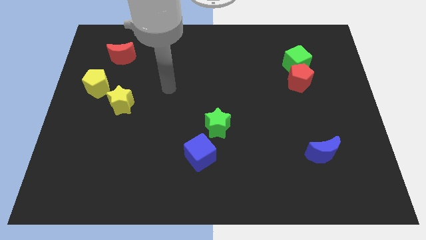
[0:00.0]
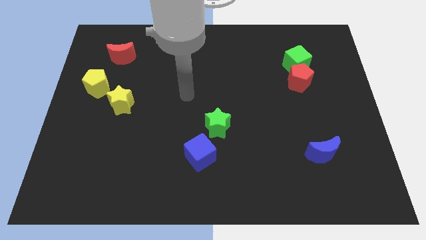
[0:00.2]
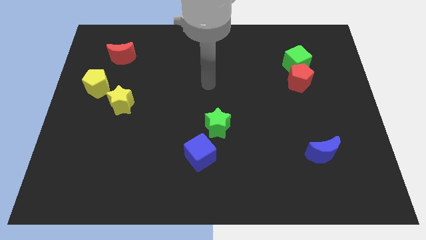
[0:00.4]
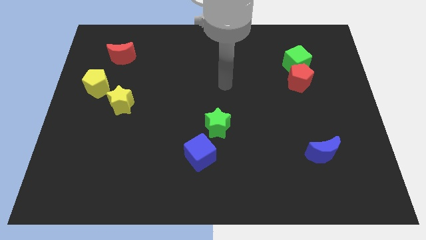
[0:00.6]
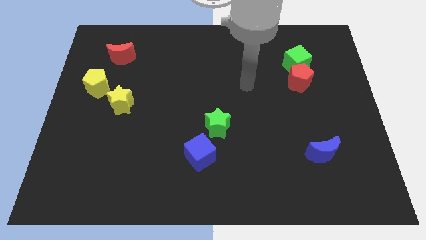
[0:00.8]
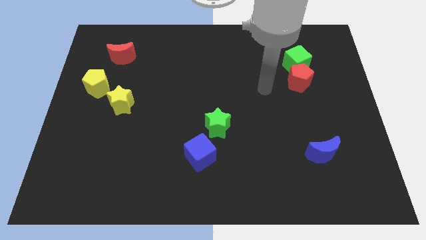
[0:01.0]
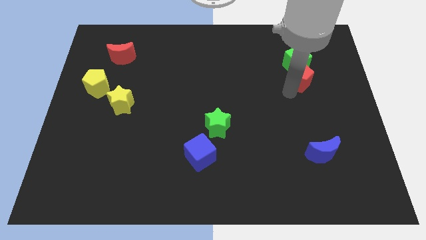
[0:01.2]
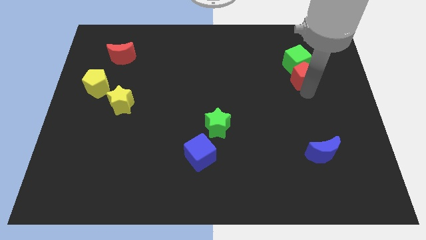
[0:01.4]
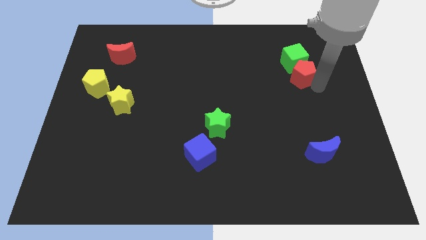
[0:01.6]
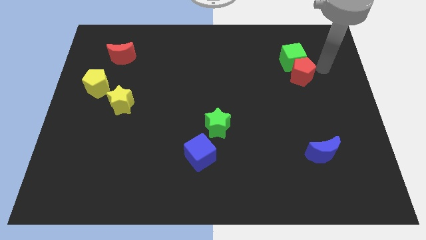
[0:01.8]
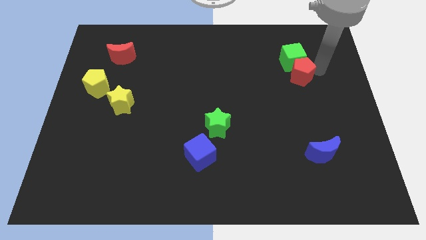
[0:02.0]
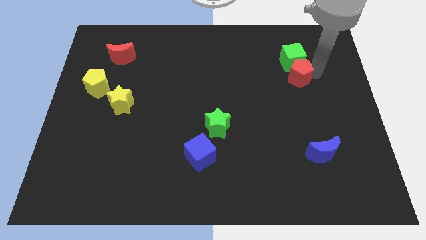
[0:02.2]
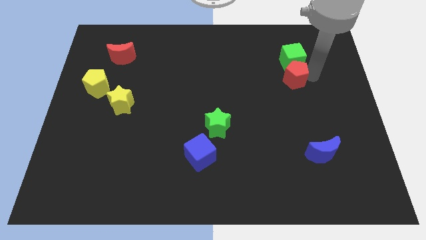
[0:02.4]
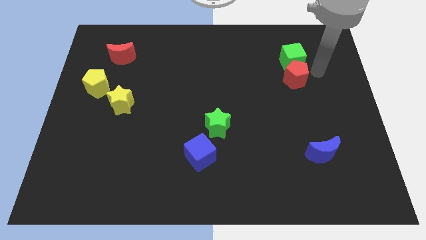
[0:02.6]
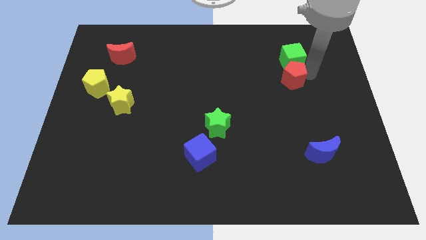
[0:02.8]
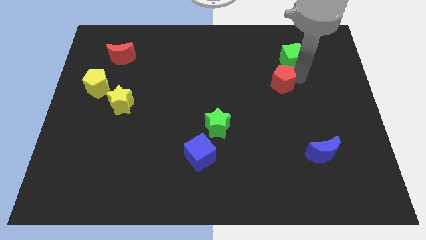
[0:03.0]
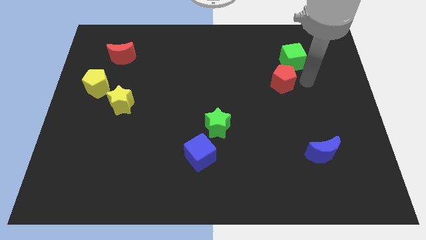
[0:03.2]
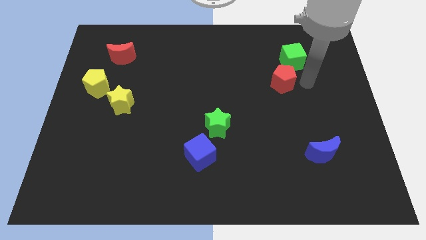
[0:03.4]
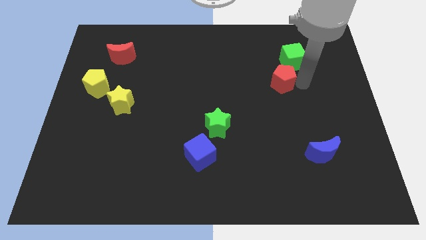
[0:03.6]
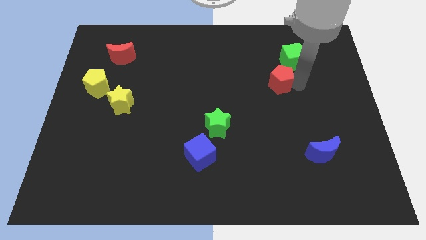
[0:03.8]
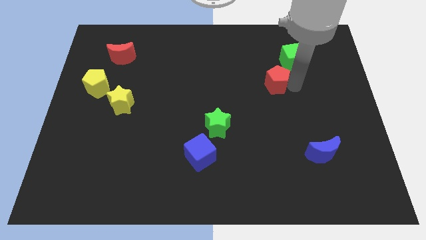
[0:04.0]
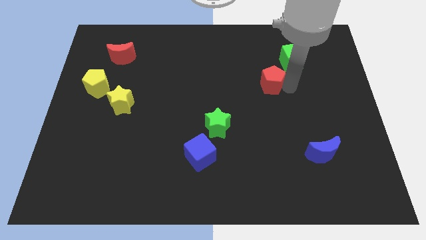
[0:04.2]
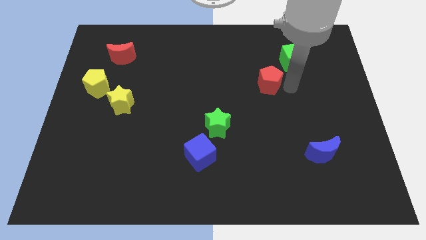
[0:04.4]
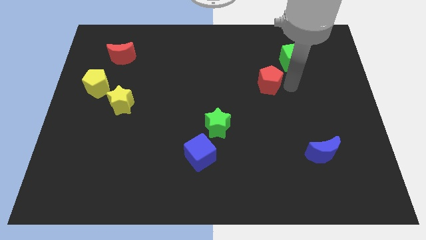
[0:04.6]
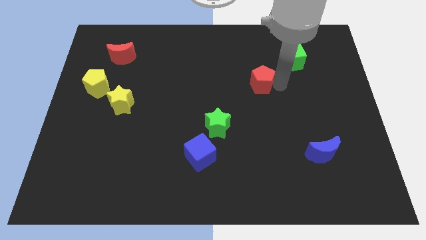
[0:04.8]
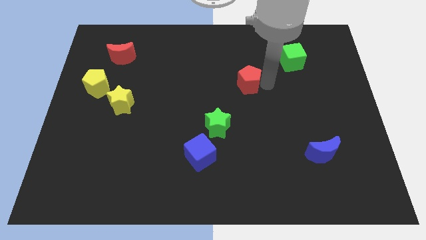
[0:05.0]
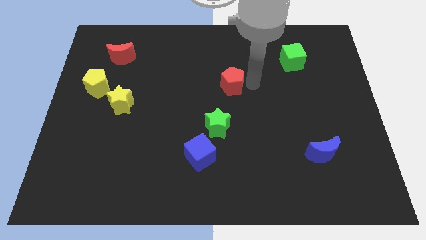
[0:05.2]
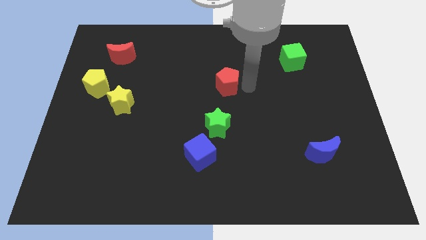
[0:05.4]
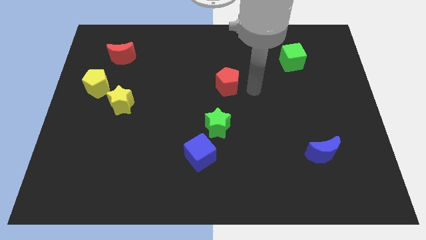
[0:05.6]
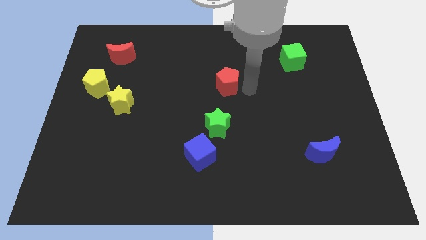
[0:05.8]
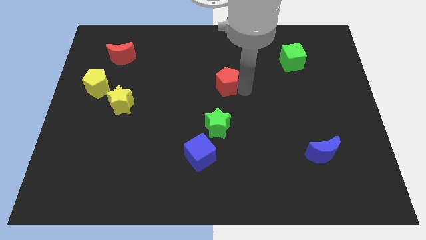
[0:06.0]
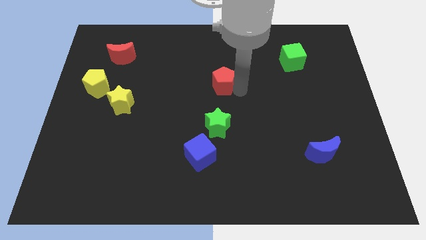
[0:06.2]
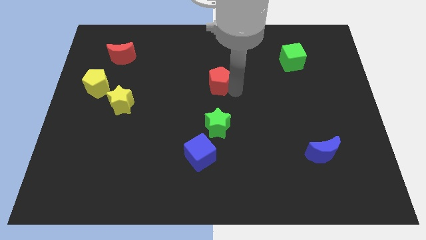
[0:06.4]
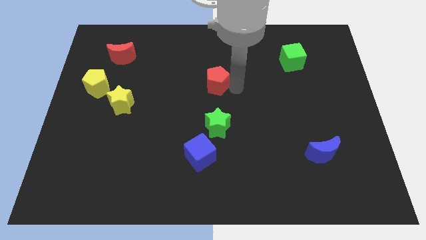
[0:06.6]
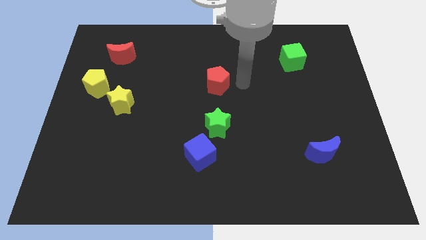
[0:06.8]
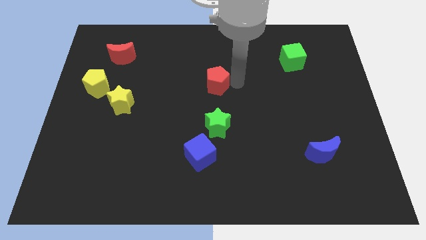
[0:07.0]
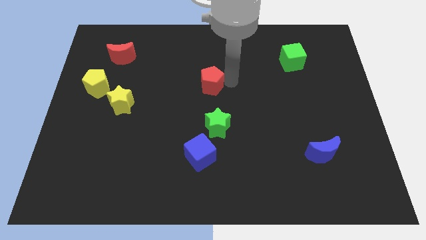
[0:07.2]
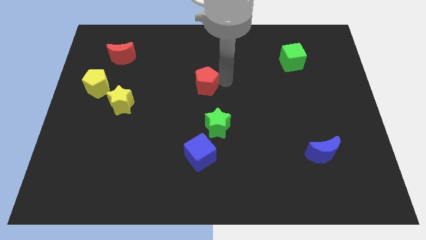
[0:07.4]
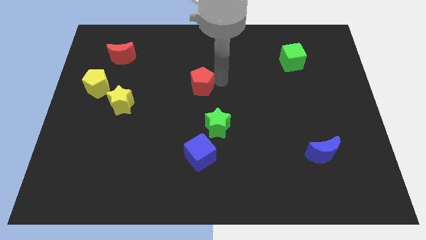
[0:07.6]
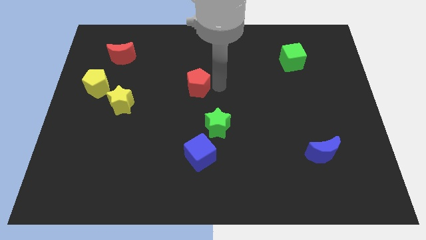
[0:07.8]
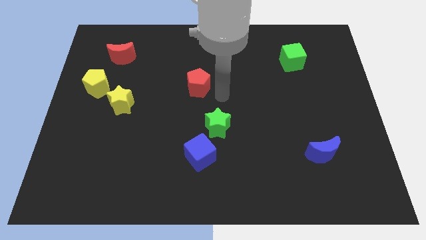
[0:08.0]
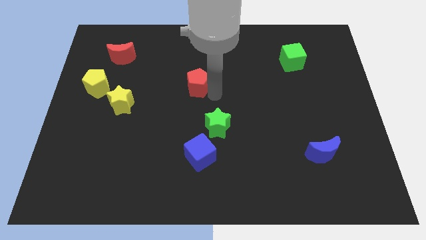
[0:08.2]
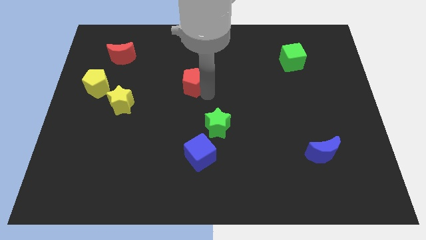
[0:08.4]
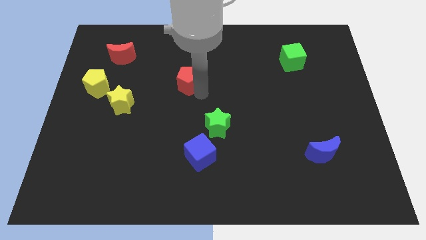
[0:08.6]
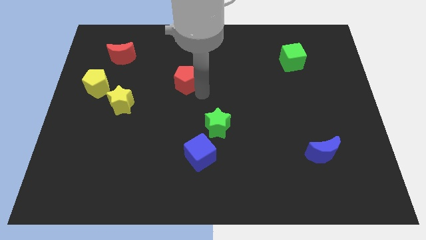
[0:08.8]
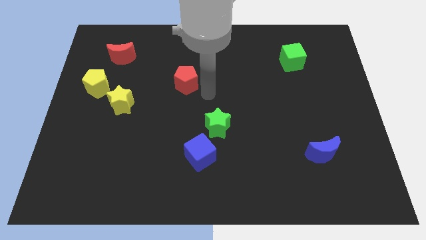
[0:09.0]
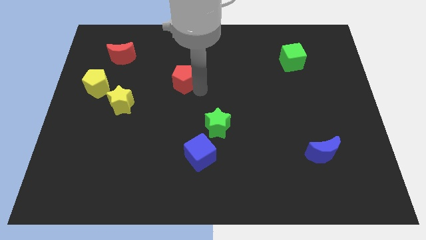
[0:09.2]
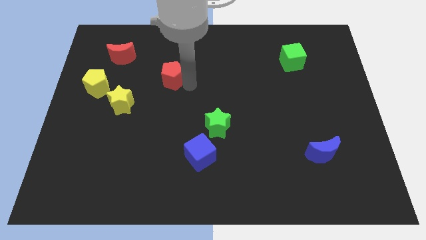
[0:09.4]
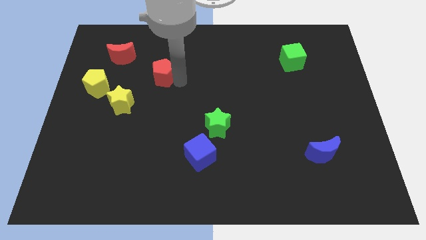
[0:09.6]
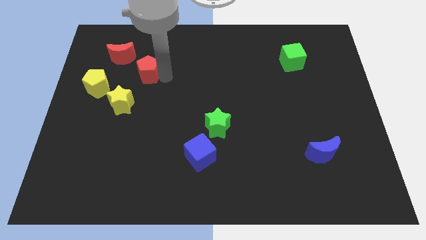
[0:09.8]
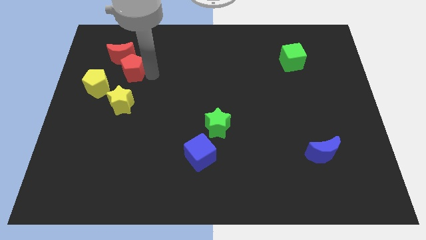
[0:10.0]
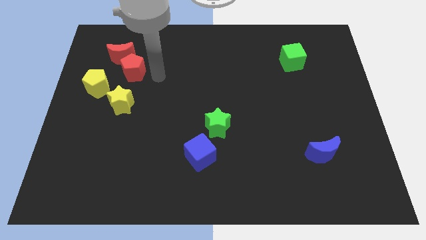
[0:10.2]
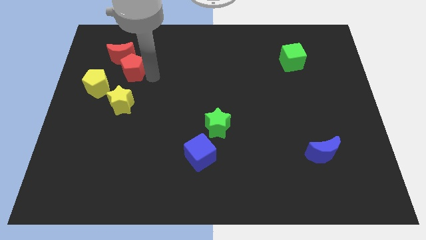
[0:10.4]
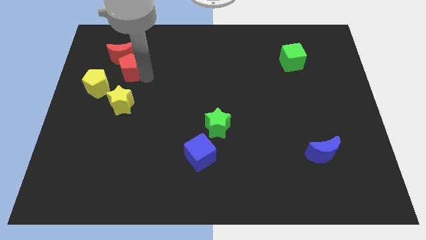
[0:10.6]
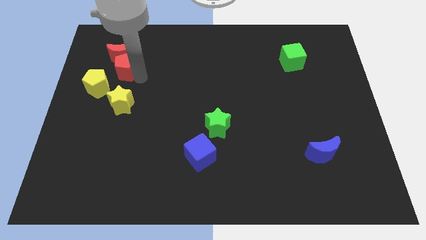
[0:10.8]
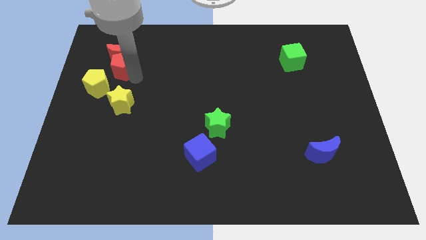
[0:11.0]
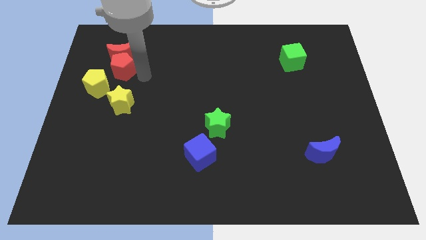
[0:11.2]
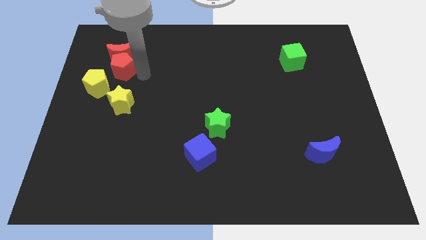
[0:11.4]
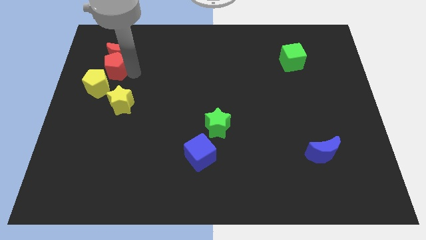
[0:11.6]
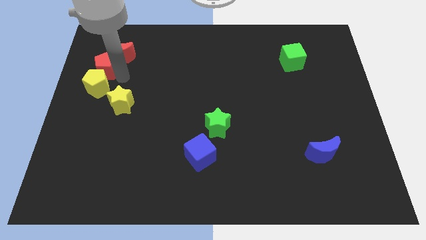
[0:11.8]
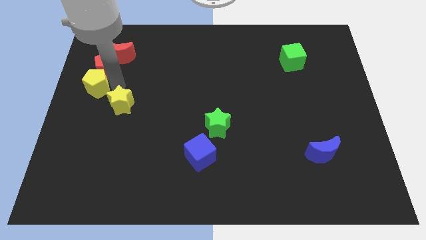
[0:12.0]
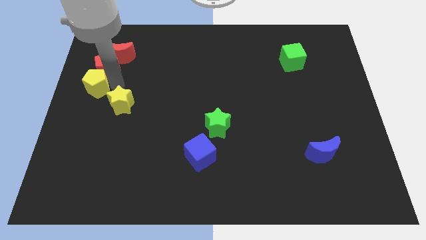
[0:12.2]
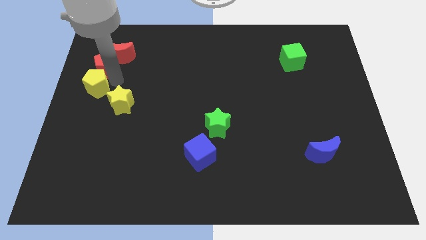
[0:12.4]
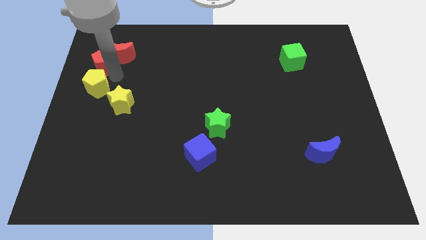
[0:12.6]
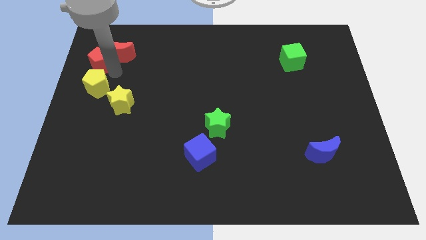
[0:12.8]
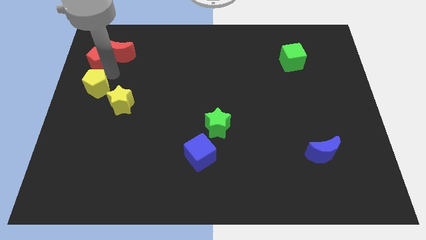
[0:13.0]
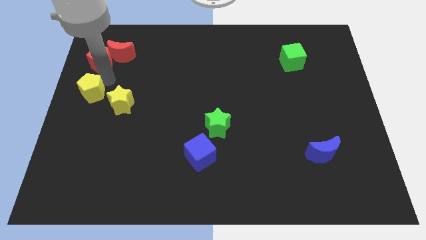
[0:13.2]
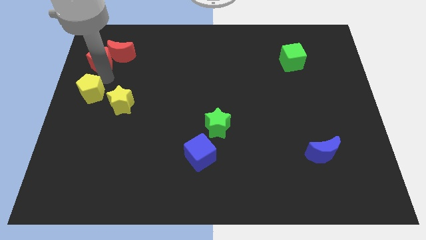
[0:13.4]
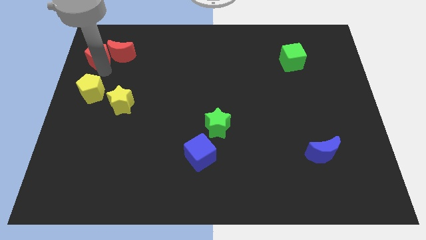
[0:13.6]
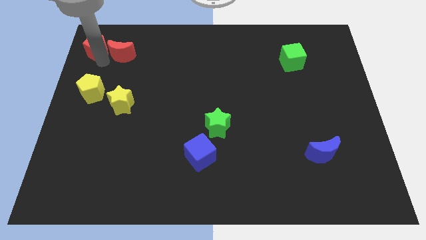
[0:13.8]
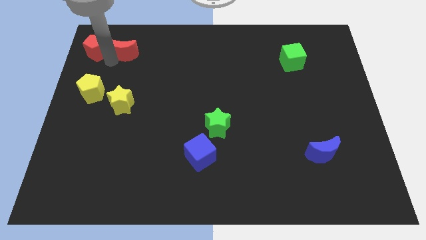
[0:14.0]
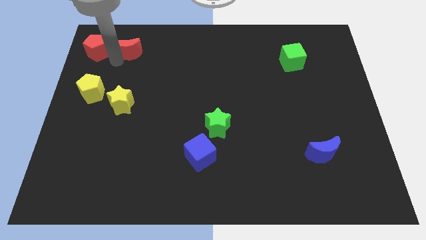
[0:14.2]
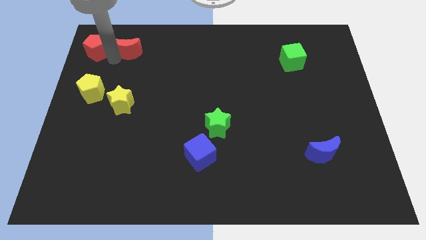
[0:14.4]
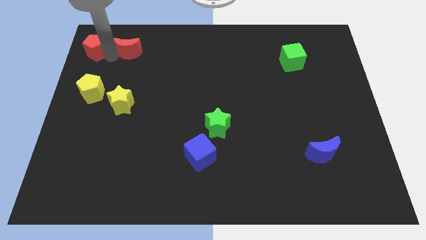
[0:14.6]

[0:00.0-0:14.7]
slide the red pentagon to the top left corner
